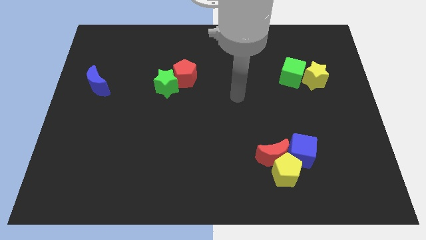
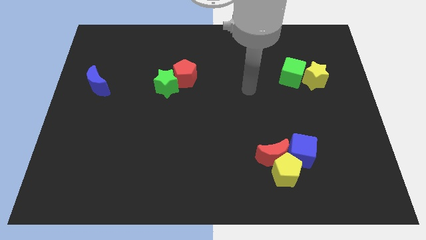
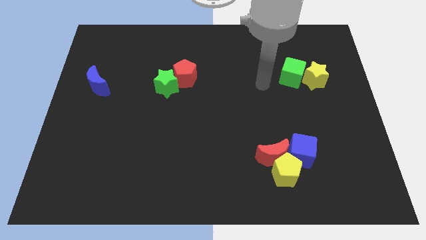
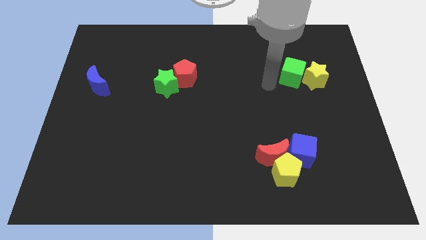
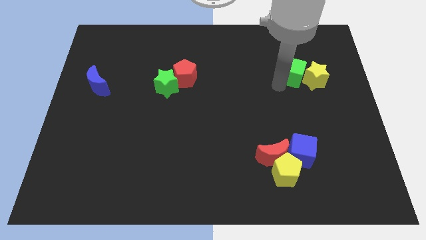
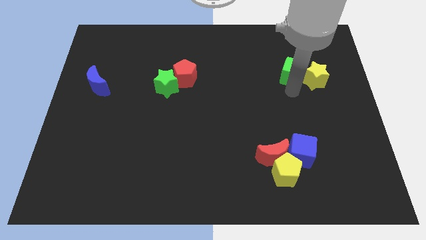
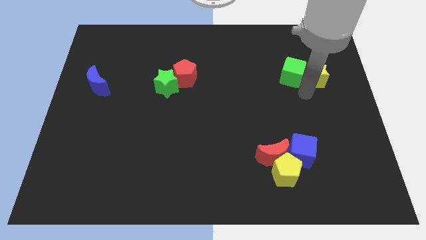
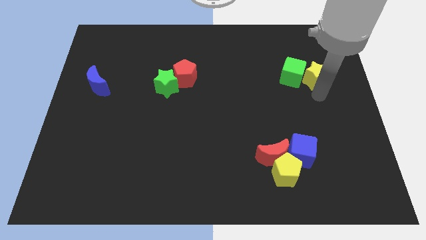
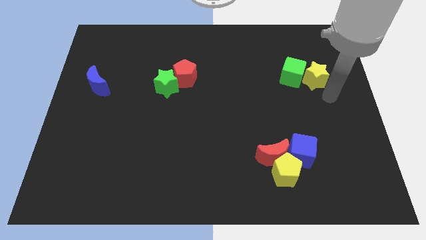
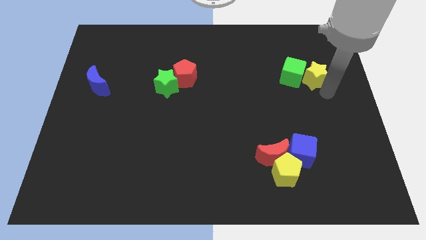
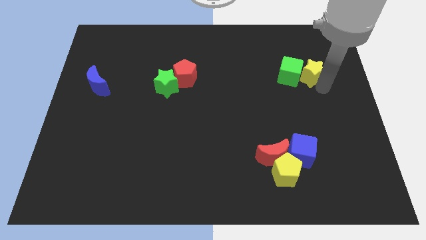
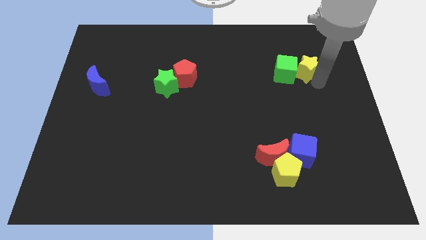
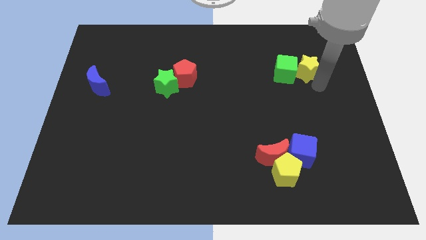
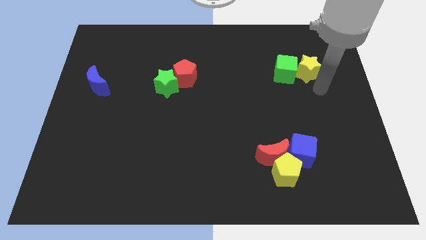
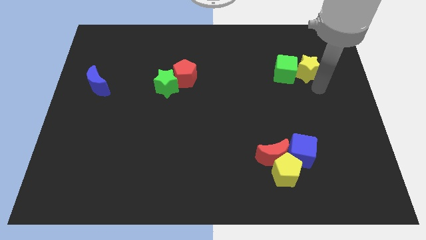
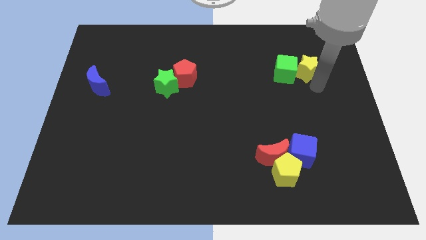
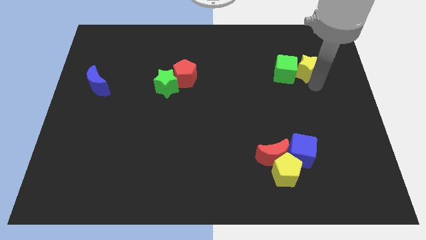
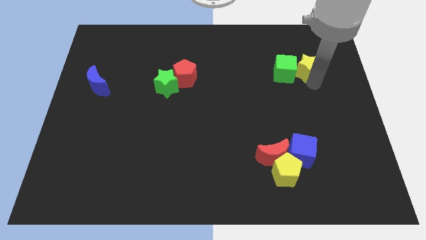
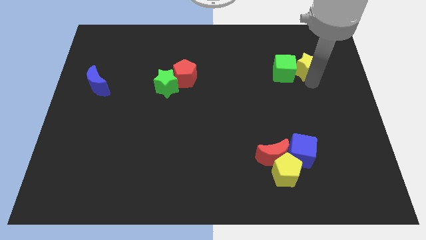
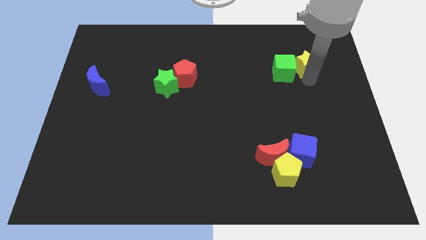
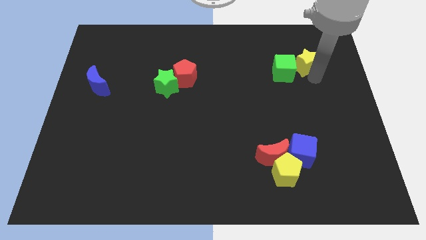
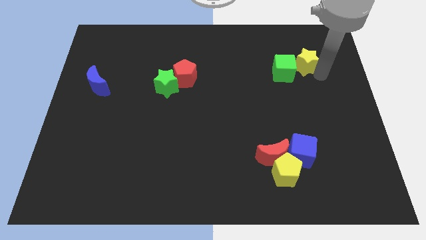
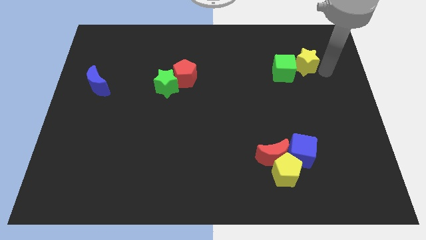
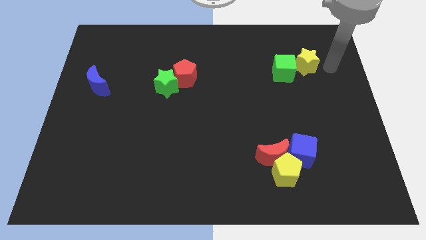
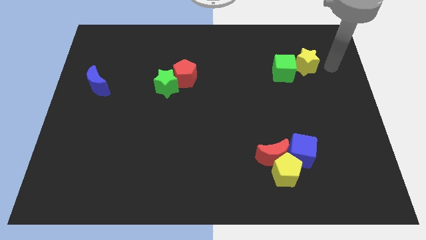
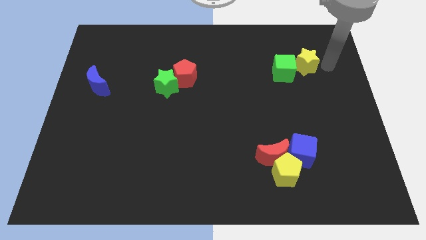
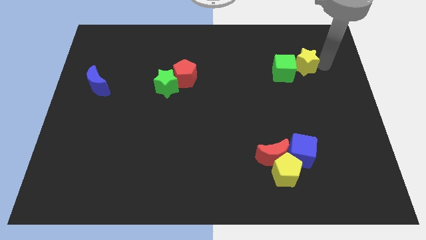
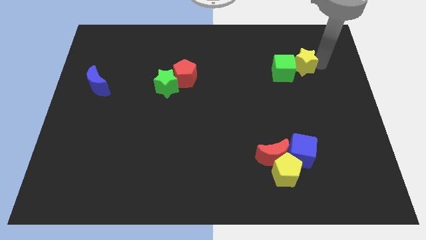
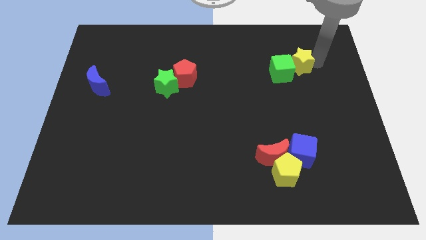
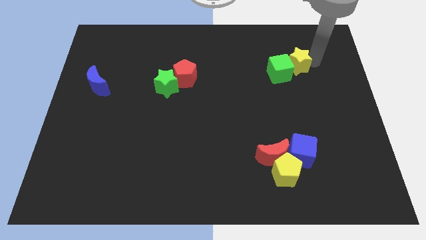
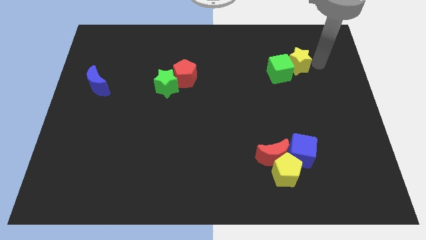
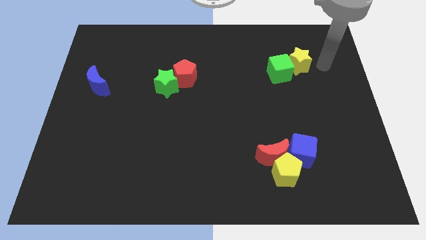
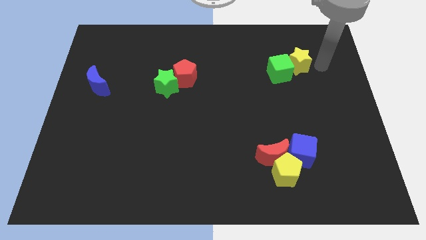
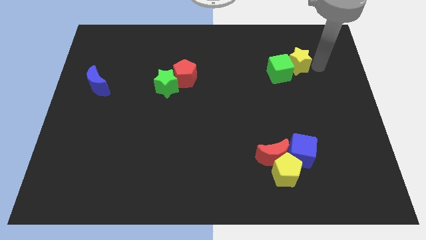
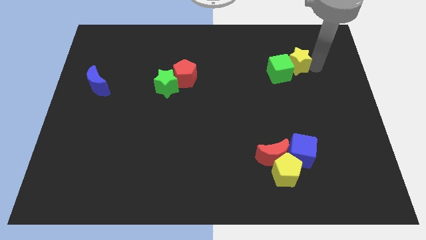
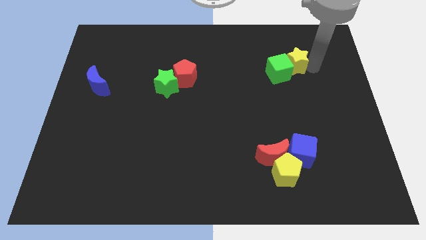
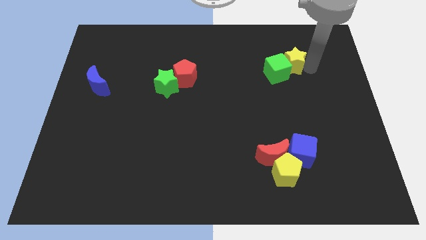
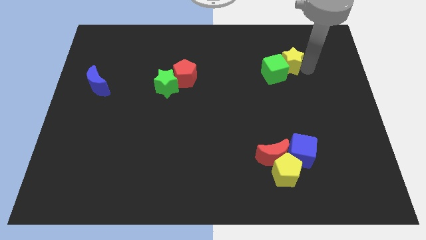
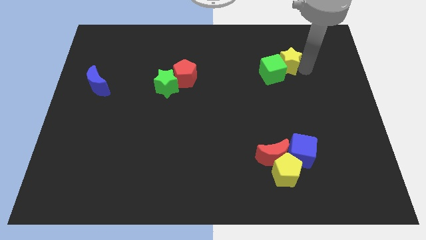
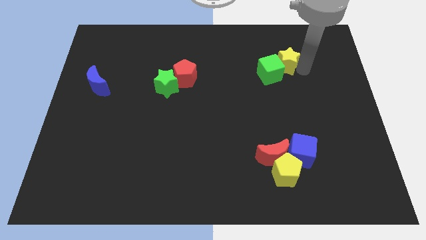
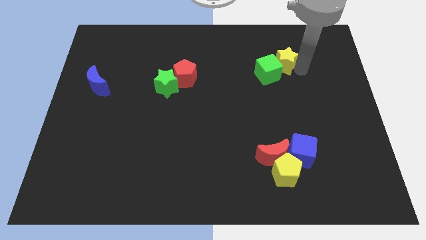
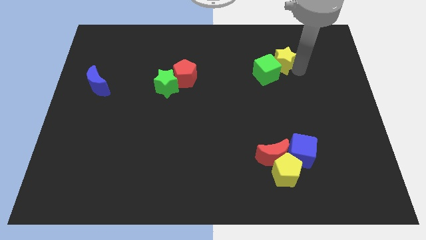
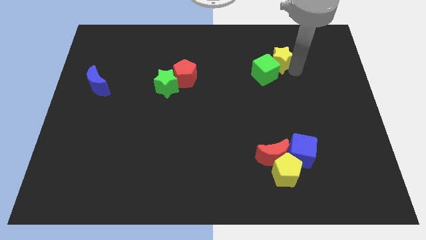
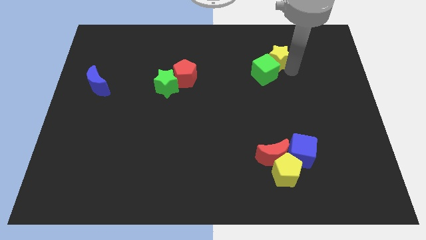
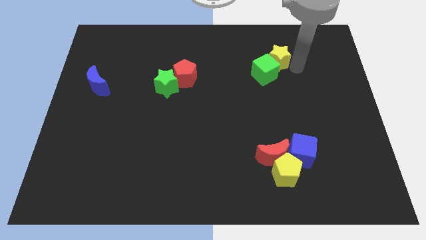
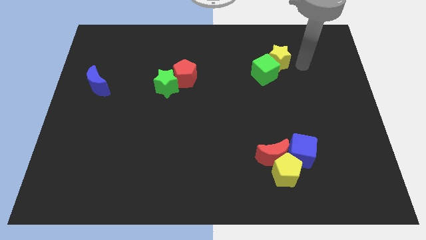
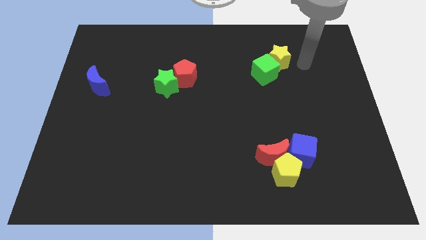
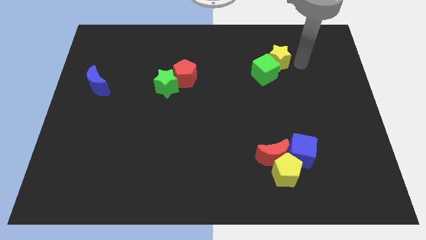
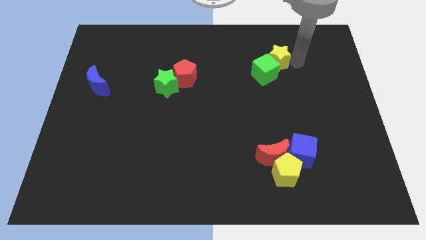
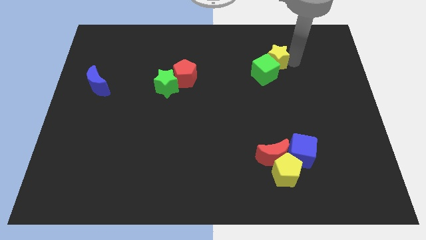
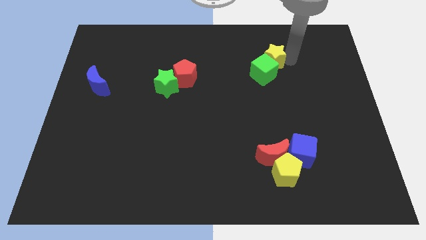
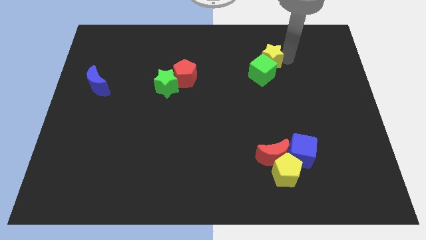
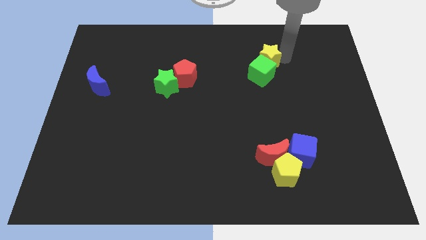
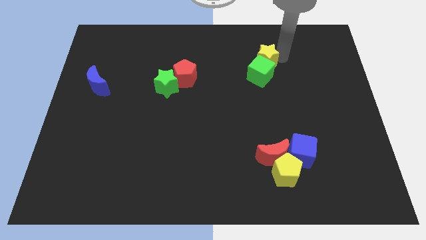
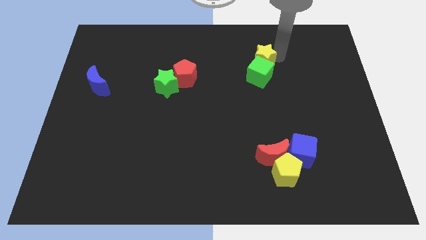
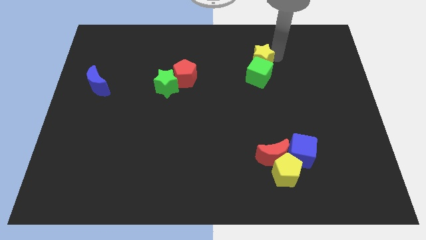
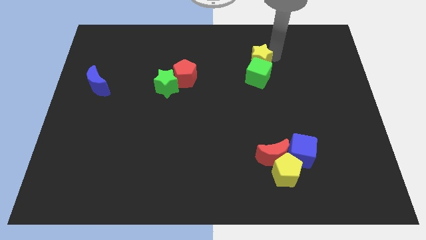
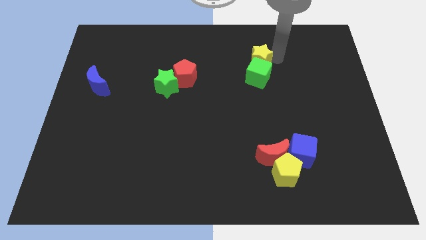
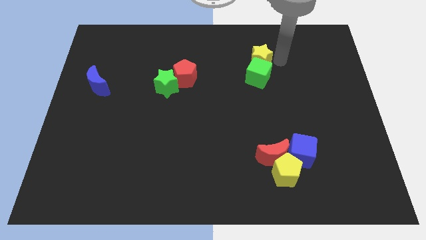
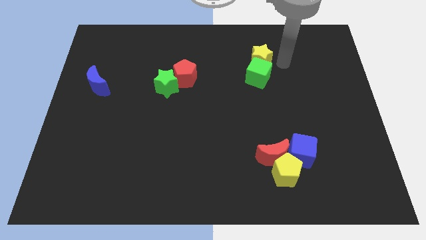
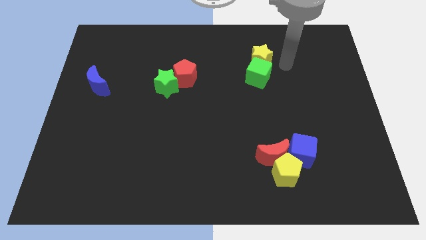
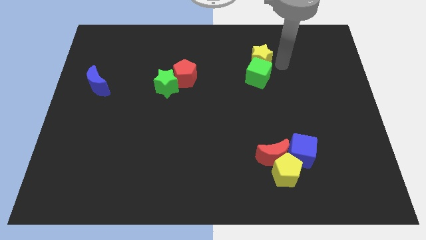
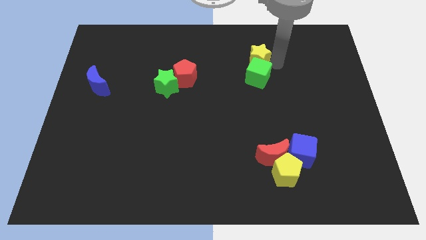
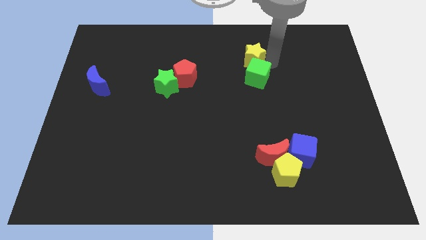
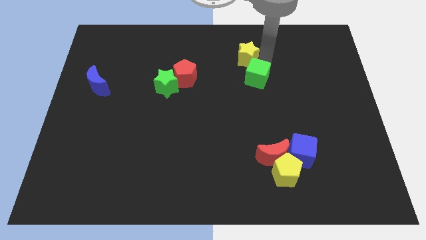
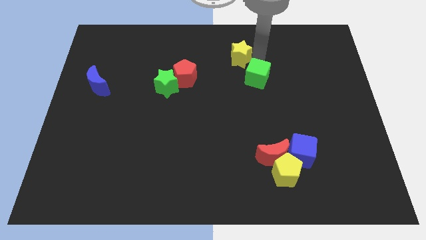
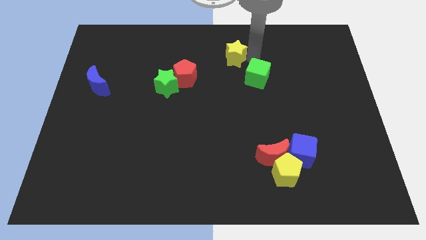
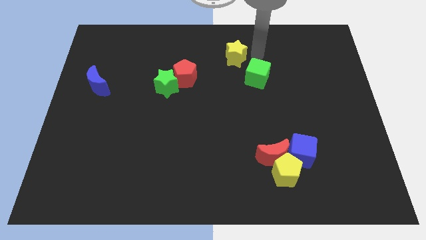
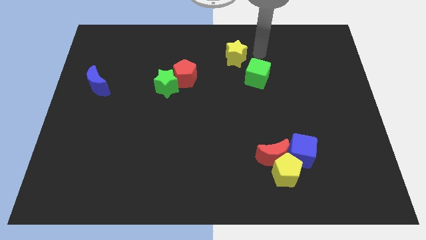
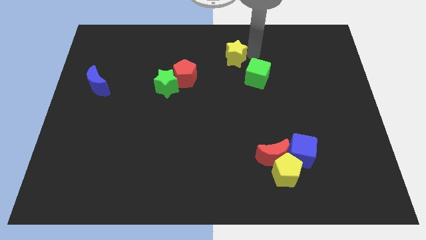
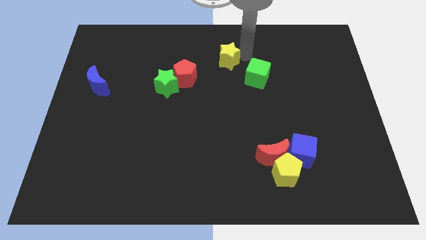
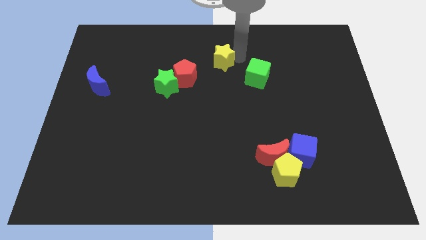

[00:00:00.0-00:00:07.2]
slide the yellow star to the top right of the red pentagon
